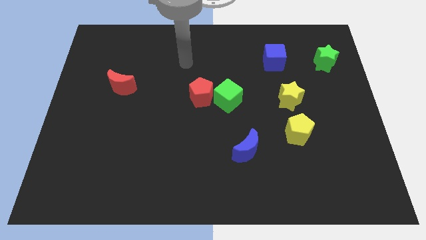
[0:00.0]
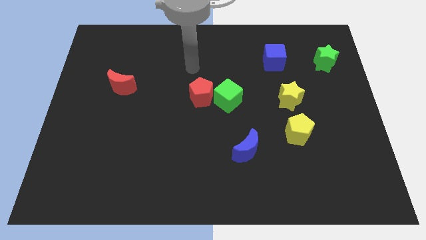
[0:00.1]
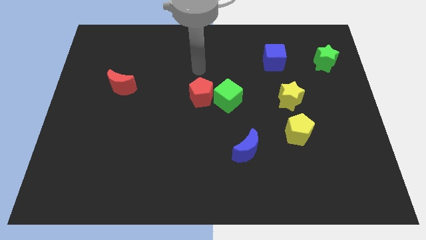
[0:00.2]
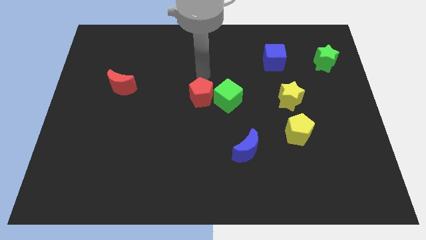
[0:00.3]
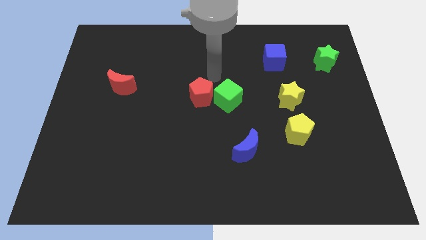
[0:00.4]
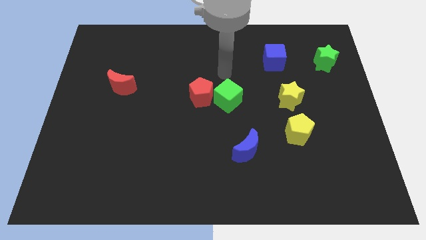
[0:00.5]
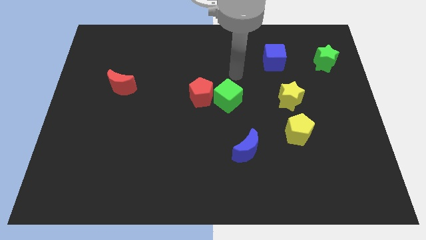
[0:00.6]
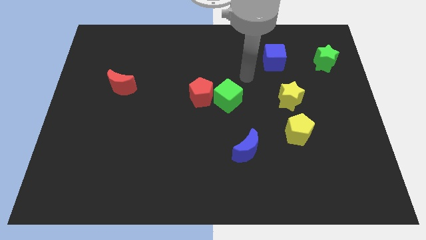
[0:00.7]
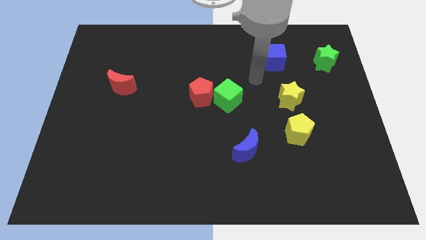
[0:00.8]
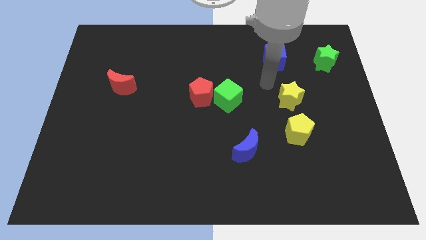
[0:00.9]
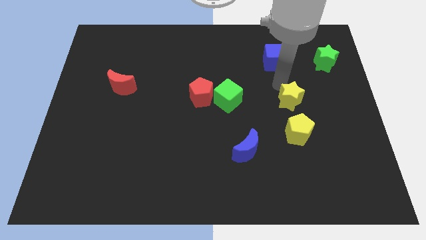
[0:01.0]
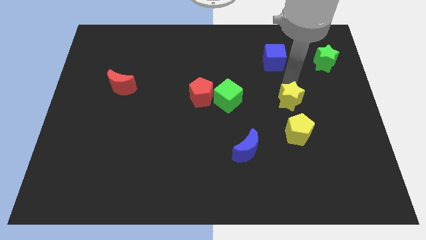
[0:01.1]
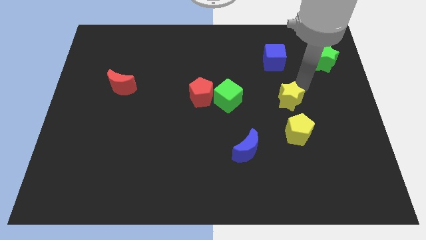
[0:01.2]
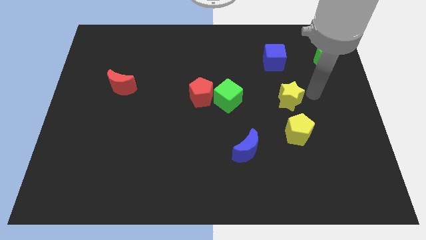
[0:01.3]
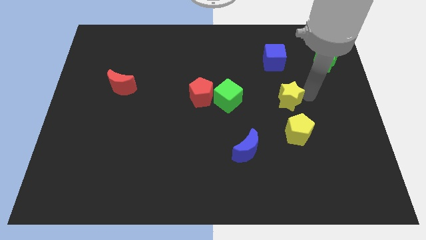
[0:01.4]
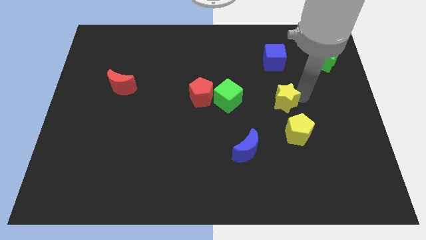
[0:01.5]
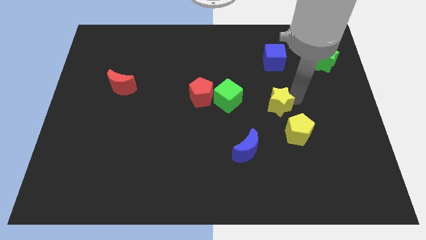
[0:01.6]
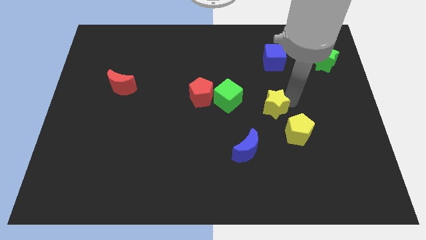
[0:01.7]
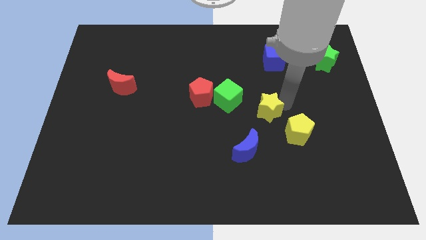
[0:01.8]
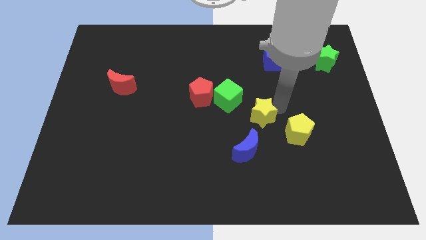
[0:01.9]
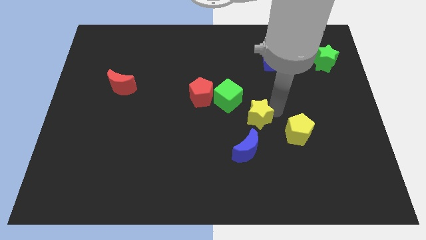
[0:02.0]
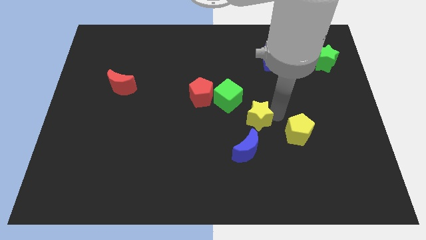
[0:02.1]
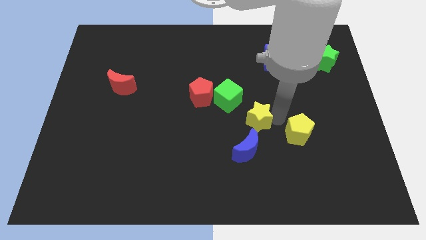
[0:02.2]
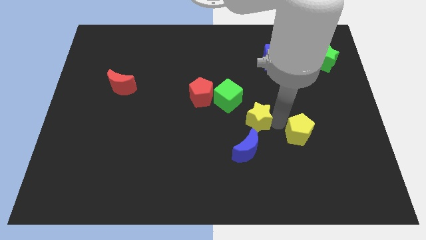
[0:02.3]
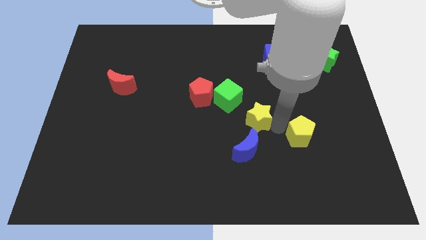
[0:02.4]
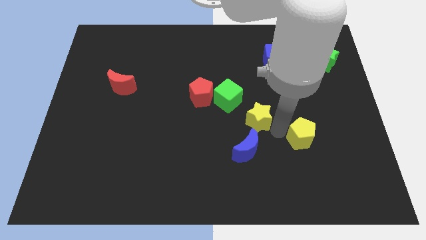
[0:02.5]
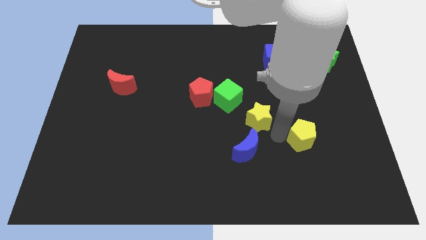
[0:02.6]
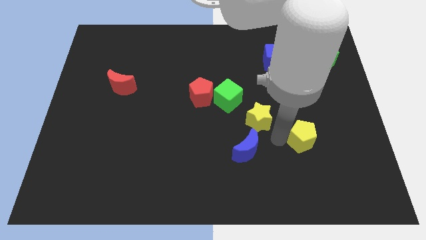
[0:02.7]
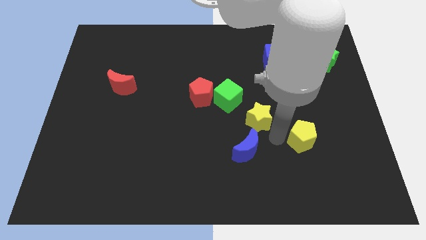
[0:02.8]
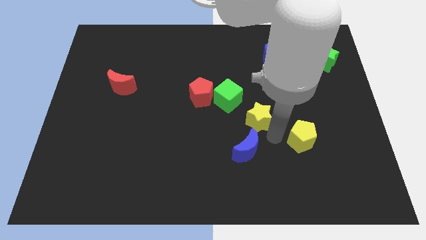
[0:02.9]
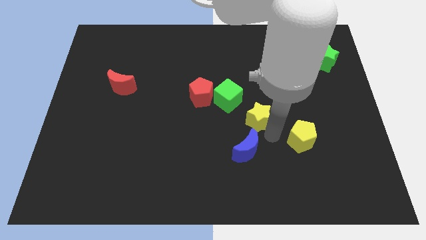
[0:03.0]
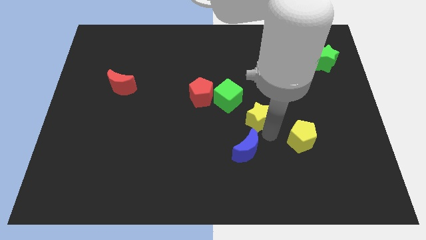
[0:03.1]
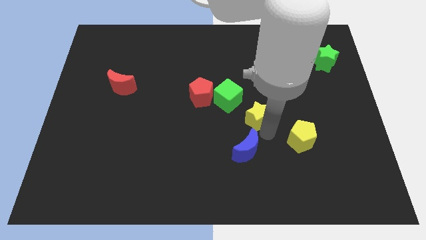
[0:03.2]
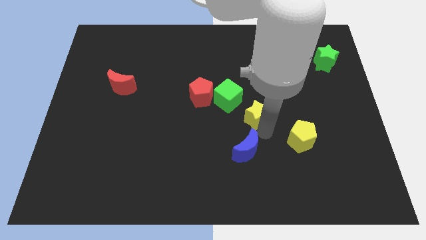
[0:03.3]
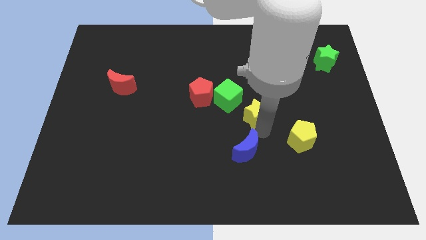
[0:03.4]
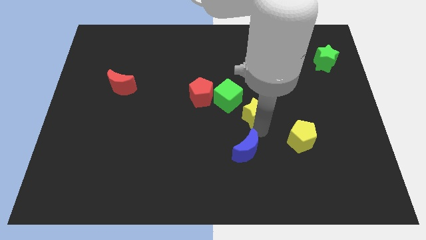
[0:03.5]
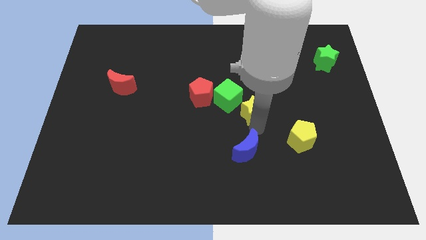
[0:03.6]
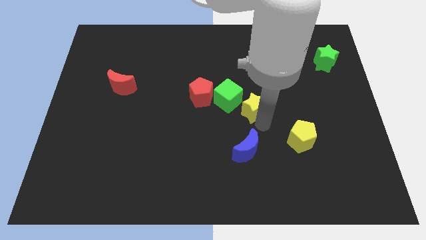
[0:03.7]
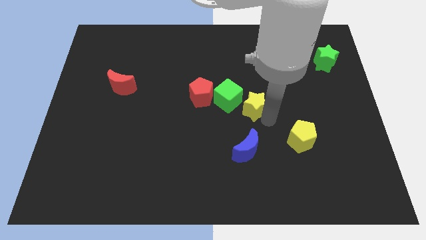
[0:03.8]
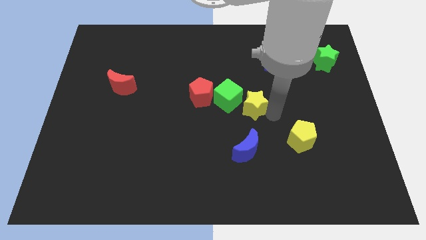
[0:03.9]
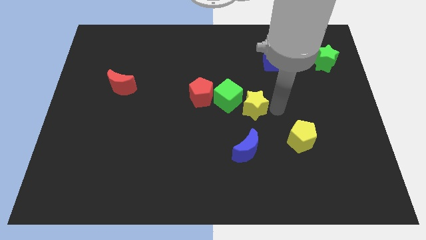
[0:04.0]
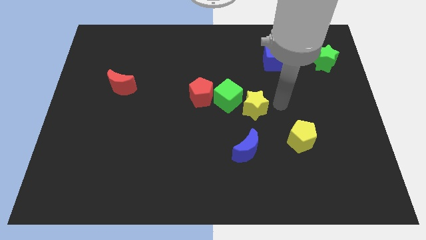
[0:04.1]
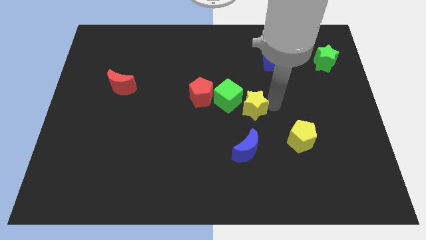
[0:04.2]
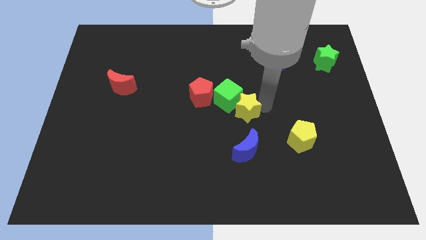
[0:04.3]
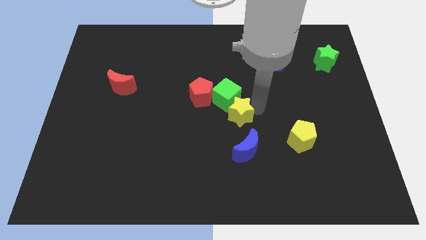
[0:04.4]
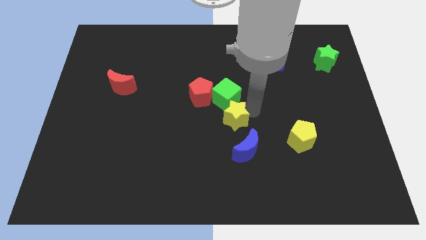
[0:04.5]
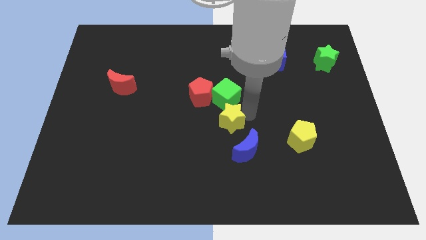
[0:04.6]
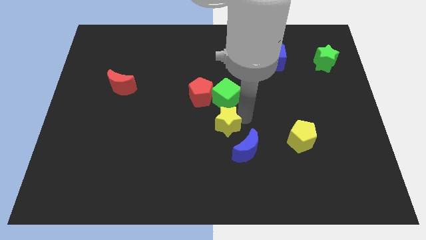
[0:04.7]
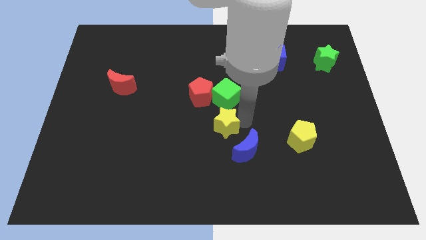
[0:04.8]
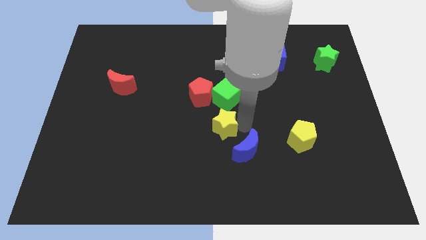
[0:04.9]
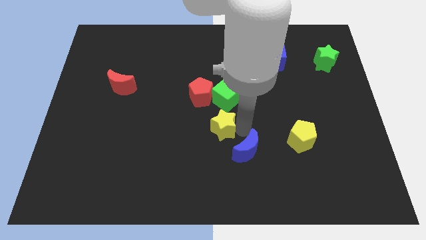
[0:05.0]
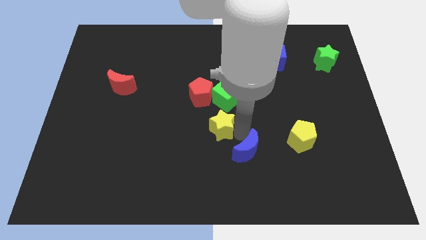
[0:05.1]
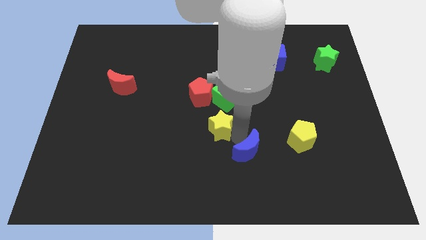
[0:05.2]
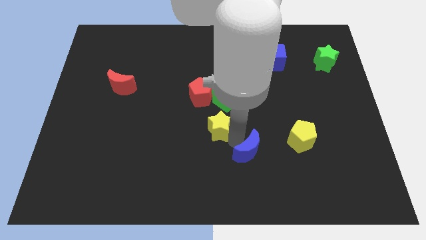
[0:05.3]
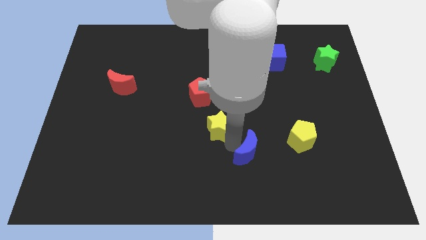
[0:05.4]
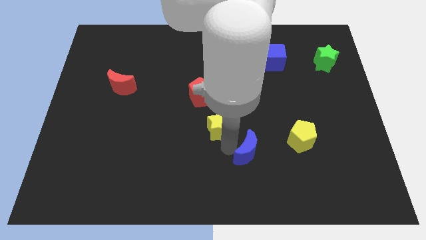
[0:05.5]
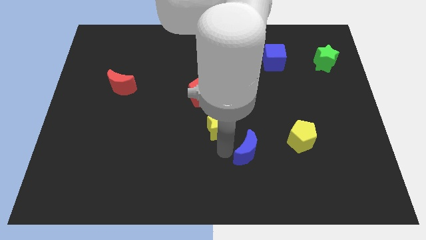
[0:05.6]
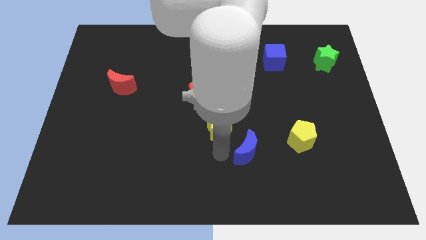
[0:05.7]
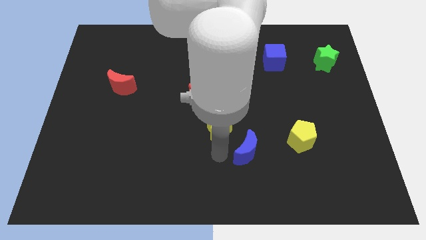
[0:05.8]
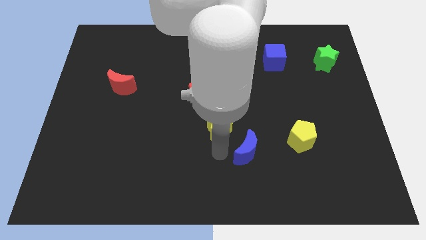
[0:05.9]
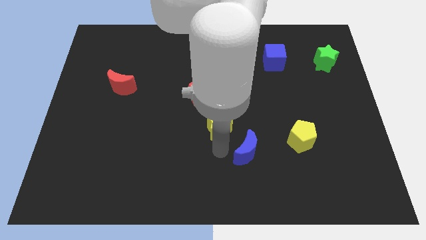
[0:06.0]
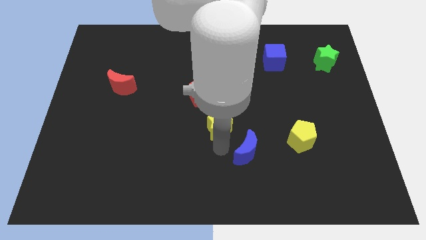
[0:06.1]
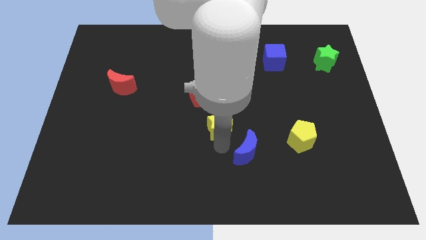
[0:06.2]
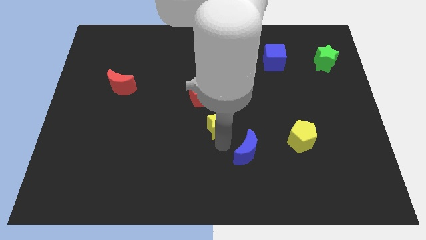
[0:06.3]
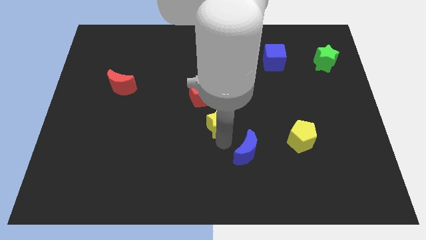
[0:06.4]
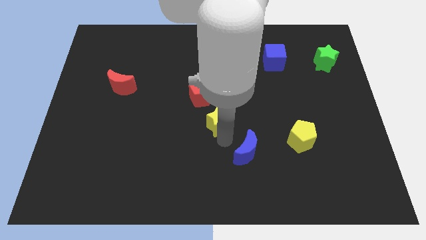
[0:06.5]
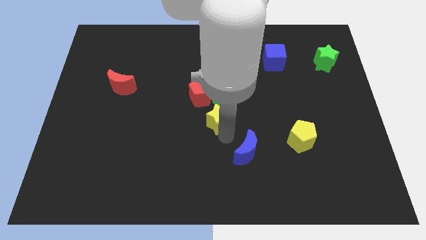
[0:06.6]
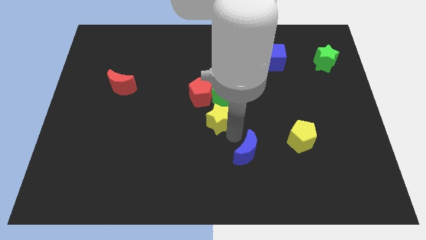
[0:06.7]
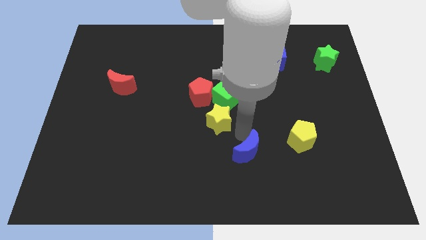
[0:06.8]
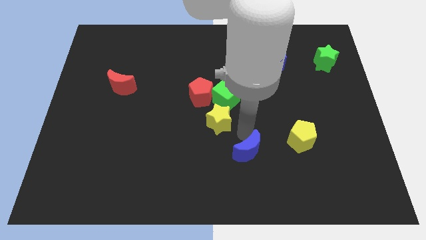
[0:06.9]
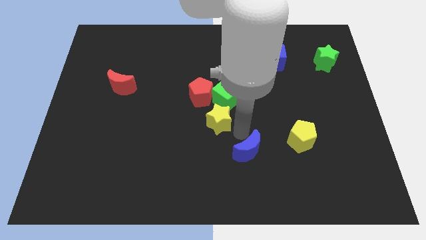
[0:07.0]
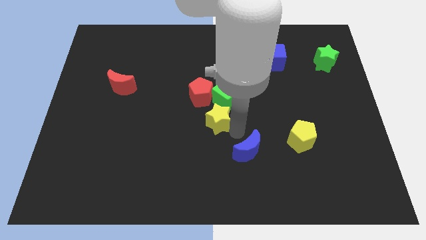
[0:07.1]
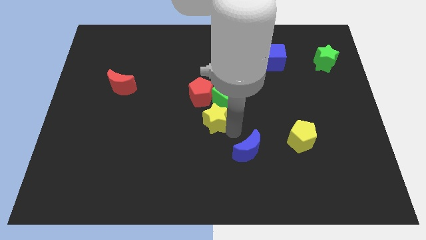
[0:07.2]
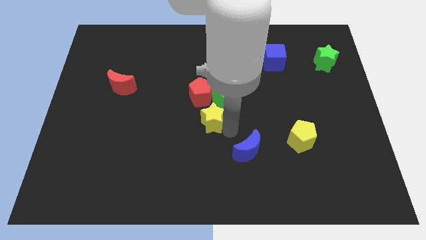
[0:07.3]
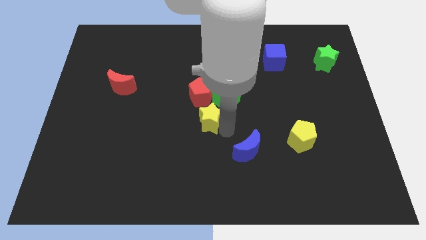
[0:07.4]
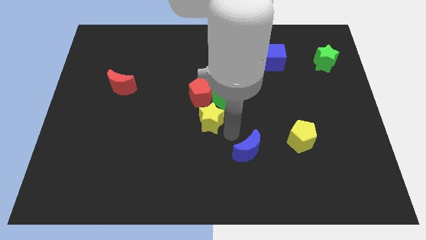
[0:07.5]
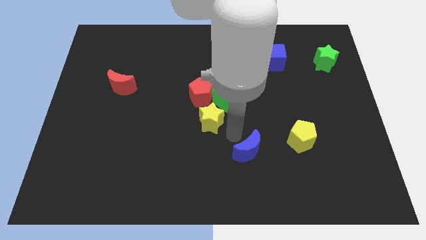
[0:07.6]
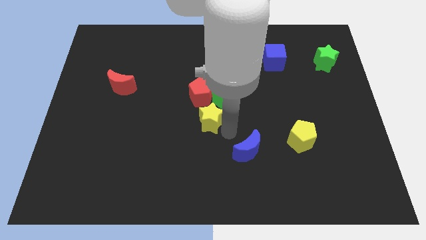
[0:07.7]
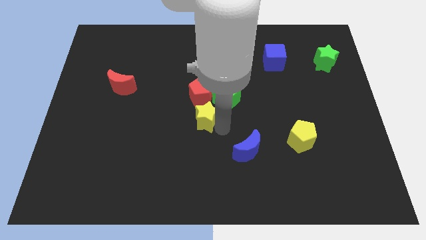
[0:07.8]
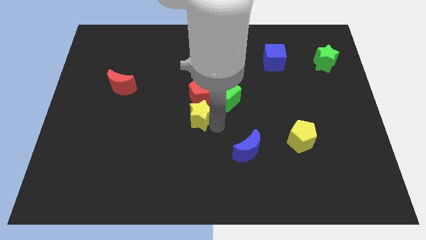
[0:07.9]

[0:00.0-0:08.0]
push the yellow star to the left
